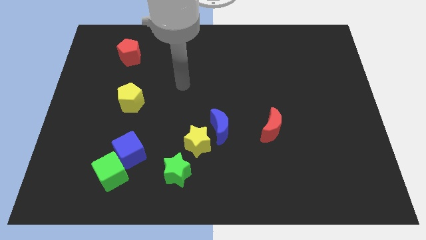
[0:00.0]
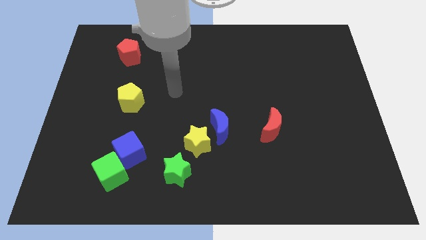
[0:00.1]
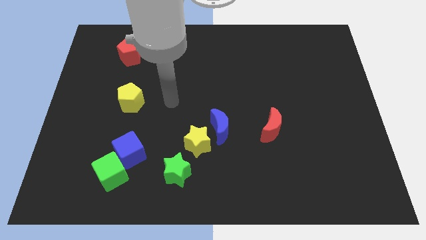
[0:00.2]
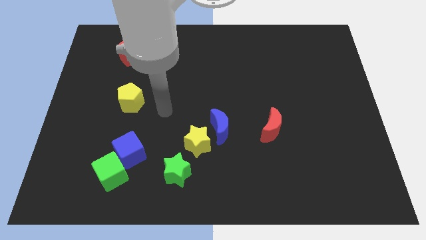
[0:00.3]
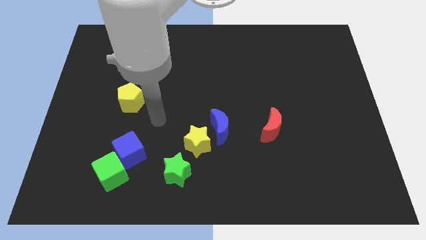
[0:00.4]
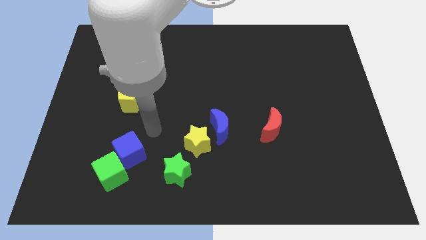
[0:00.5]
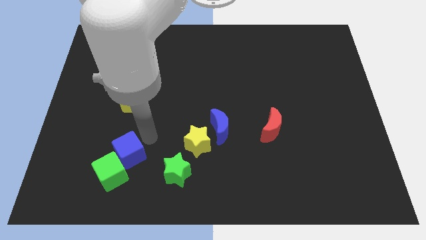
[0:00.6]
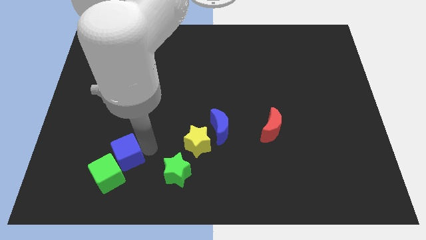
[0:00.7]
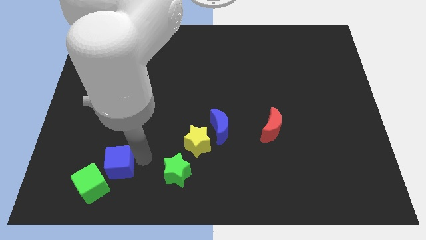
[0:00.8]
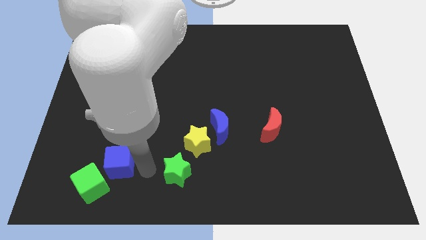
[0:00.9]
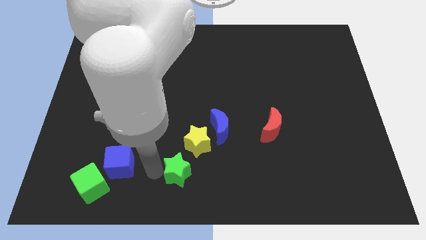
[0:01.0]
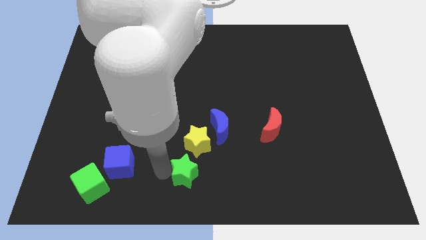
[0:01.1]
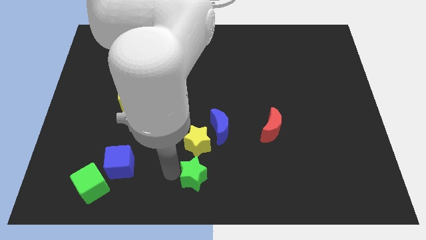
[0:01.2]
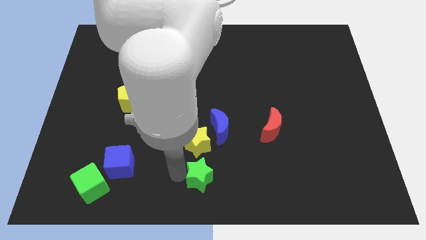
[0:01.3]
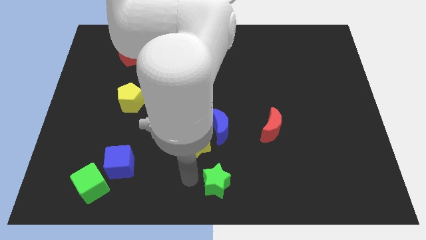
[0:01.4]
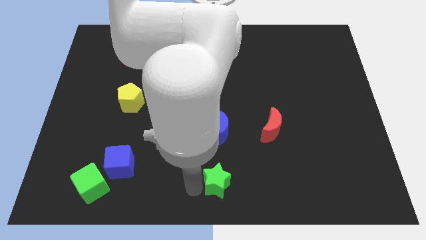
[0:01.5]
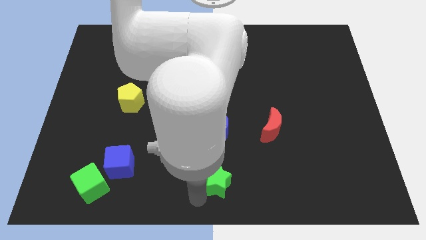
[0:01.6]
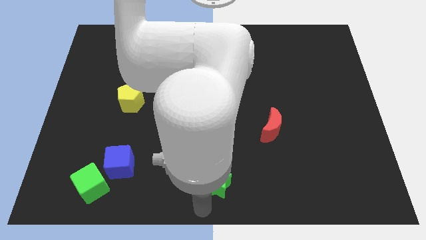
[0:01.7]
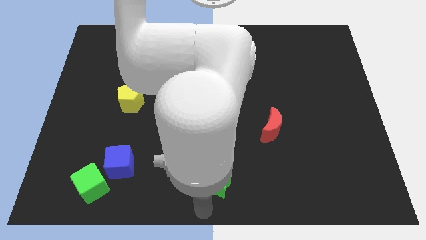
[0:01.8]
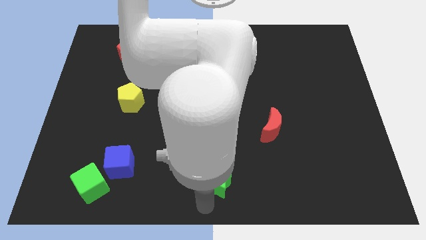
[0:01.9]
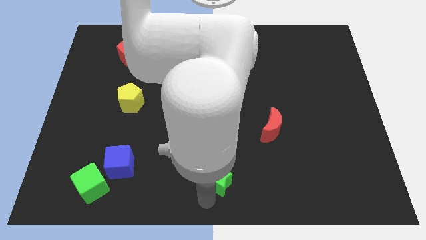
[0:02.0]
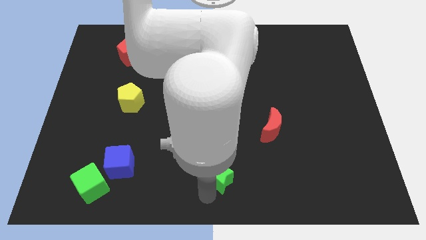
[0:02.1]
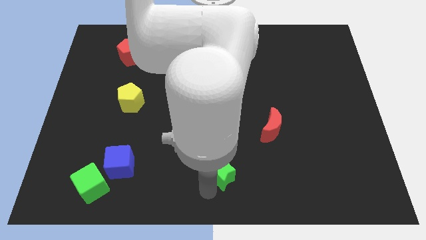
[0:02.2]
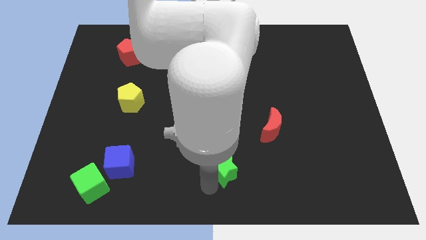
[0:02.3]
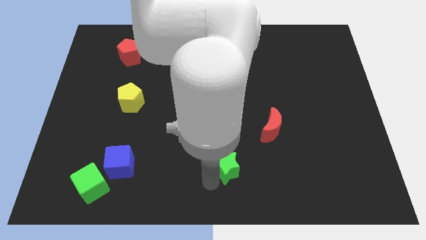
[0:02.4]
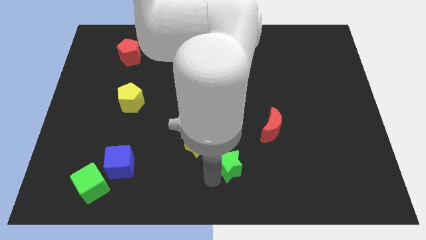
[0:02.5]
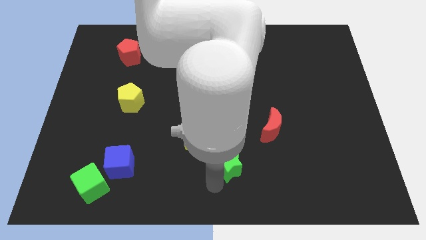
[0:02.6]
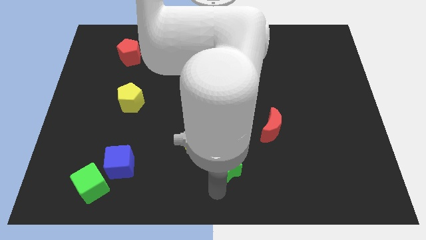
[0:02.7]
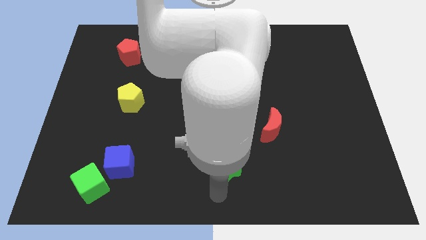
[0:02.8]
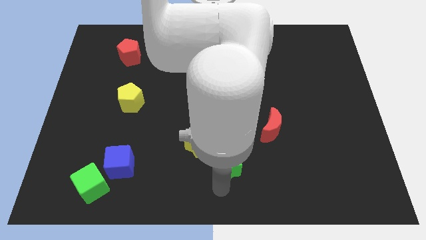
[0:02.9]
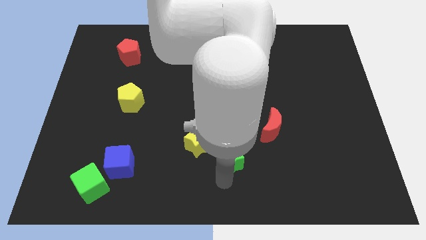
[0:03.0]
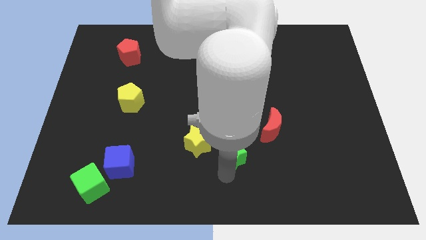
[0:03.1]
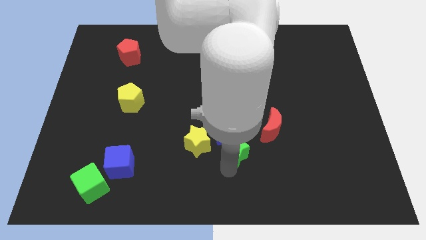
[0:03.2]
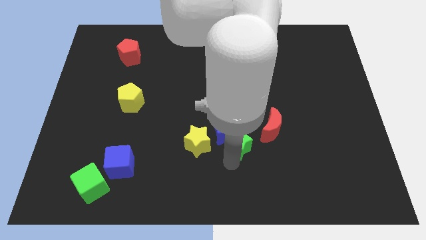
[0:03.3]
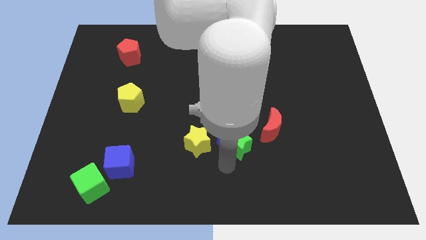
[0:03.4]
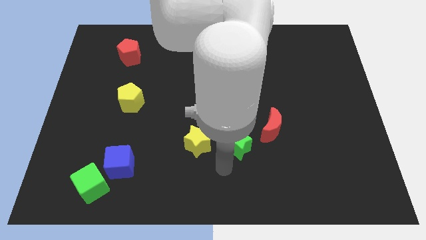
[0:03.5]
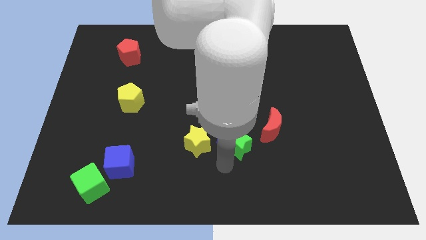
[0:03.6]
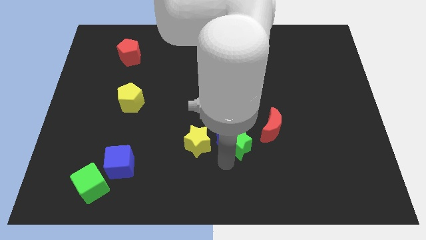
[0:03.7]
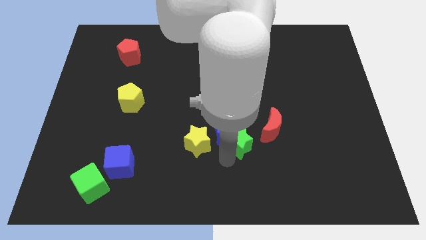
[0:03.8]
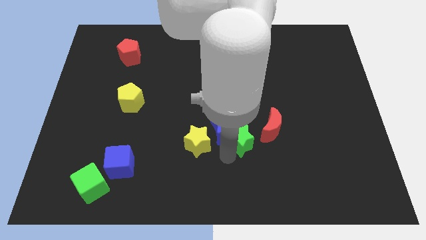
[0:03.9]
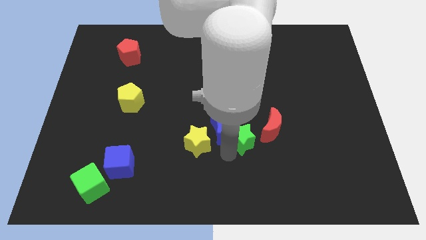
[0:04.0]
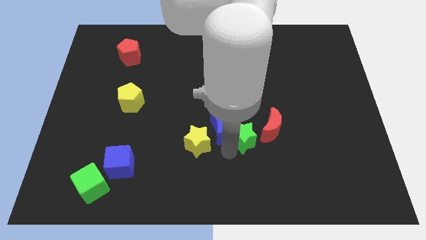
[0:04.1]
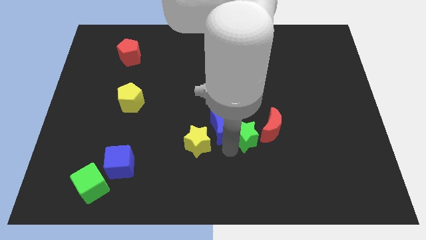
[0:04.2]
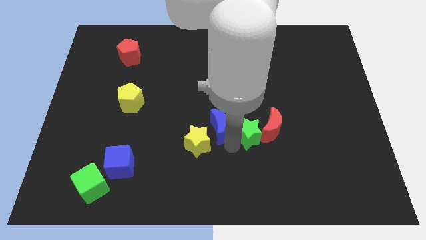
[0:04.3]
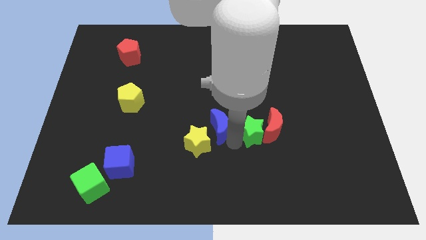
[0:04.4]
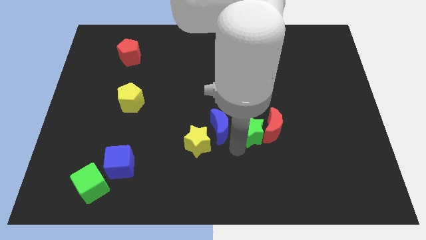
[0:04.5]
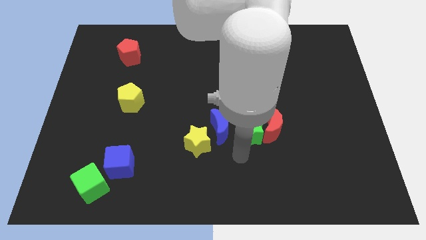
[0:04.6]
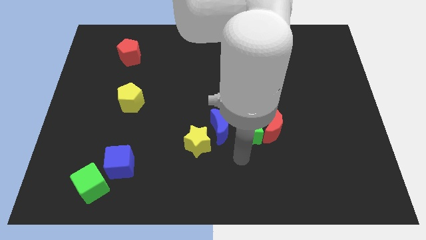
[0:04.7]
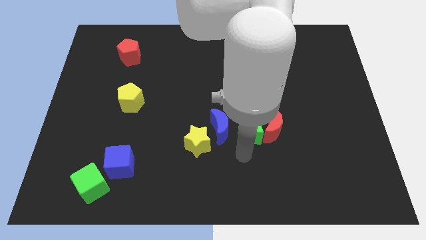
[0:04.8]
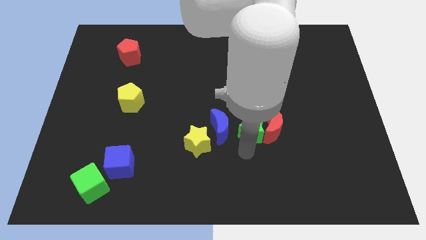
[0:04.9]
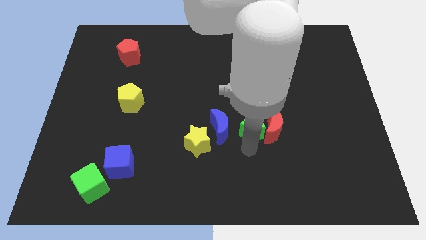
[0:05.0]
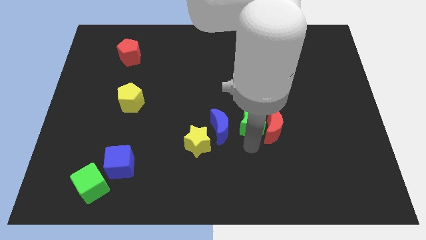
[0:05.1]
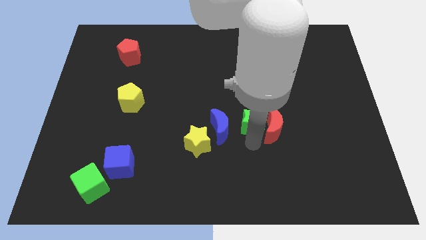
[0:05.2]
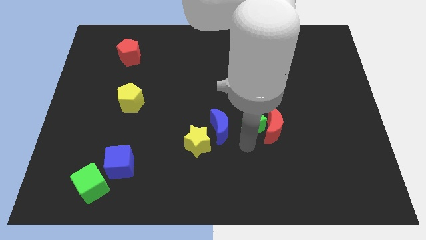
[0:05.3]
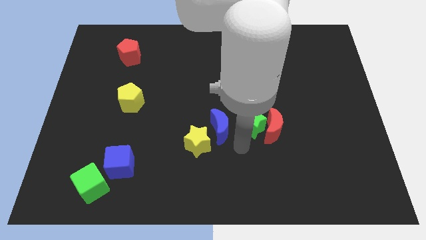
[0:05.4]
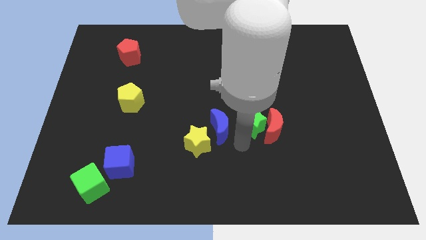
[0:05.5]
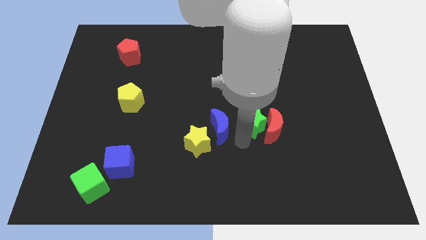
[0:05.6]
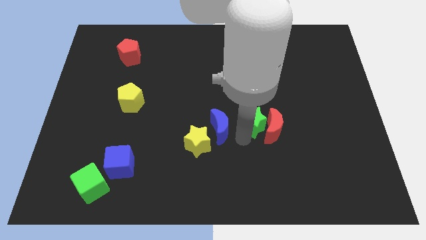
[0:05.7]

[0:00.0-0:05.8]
move the green star up and then right

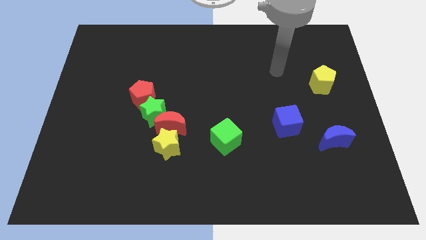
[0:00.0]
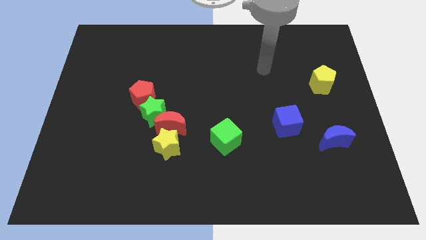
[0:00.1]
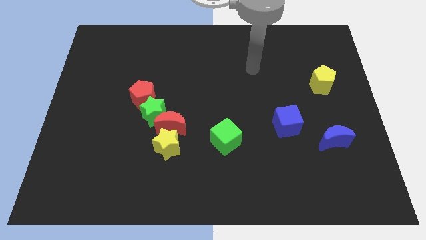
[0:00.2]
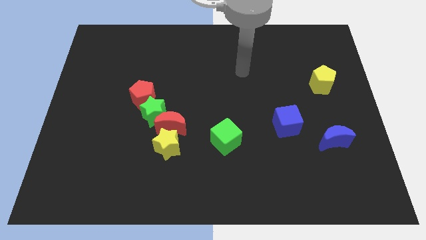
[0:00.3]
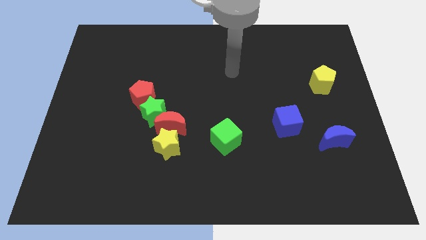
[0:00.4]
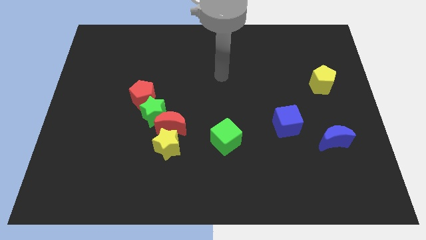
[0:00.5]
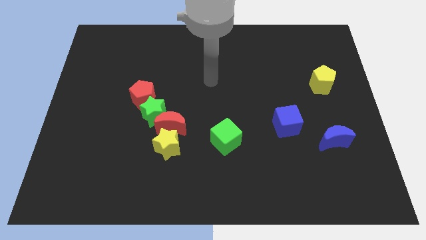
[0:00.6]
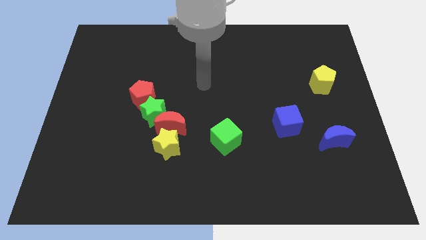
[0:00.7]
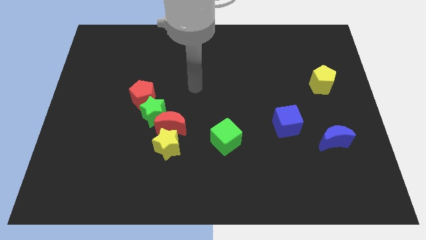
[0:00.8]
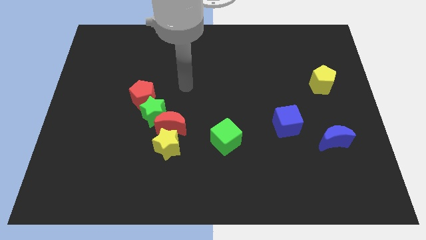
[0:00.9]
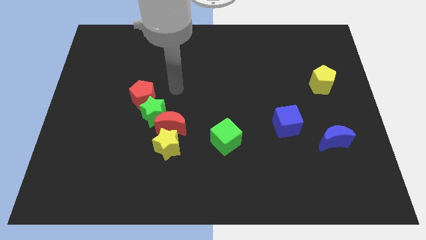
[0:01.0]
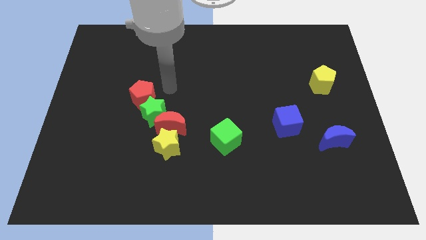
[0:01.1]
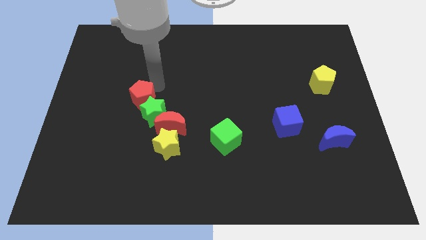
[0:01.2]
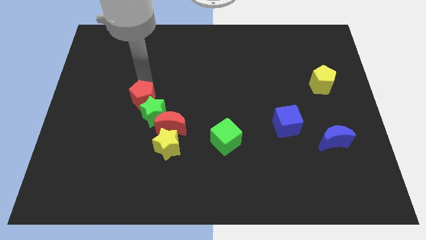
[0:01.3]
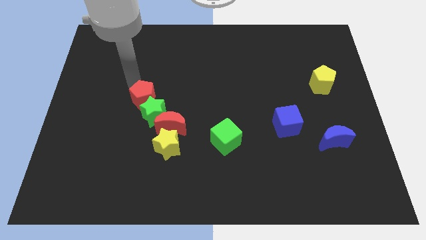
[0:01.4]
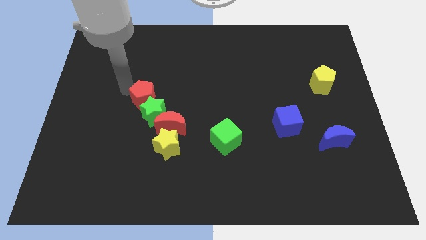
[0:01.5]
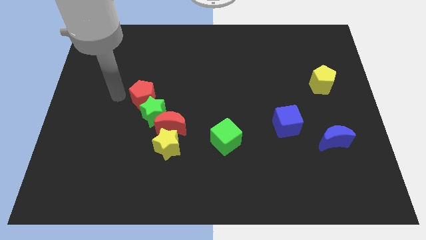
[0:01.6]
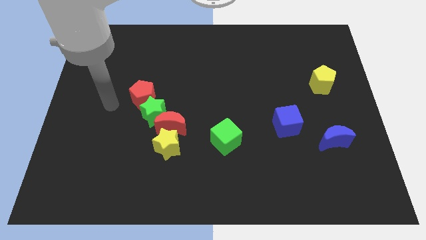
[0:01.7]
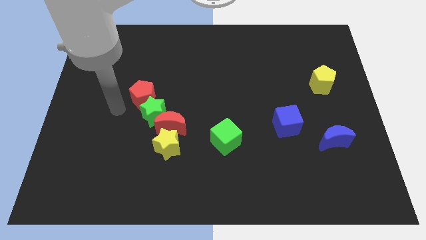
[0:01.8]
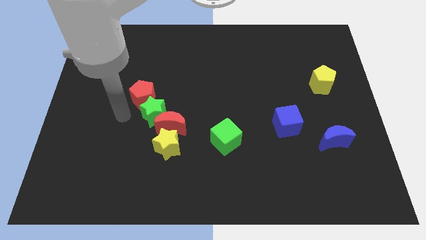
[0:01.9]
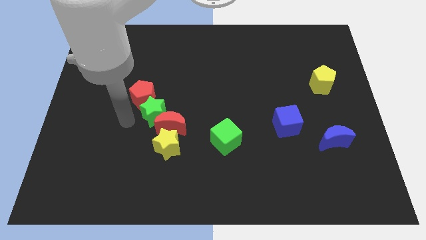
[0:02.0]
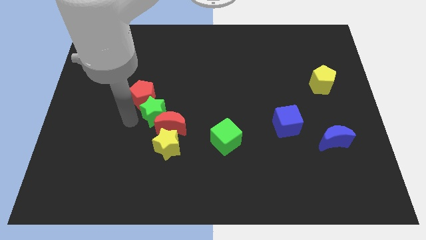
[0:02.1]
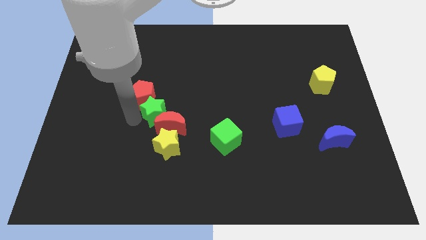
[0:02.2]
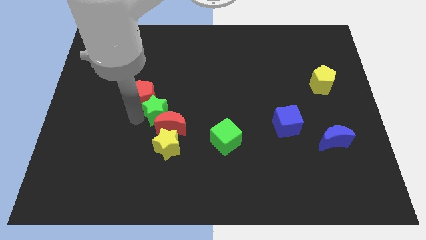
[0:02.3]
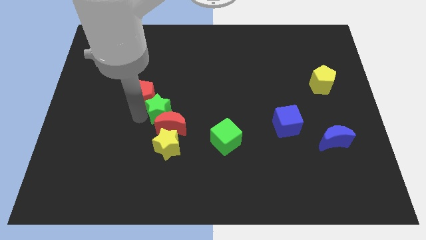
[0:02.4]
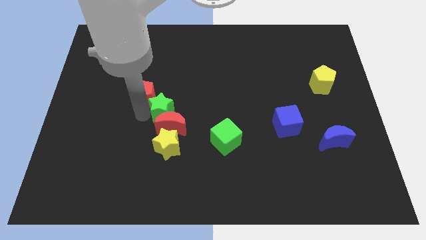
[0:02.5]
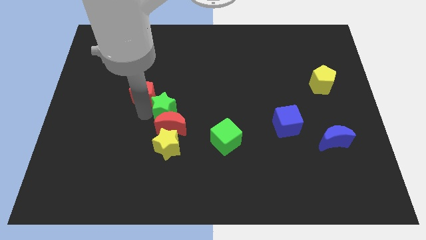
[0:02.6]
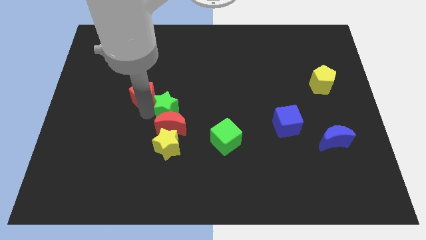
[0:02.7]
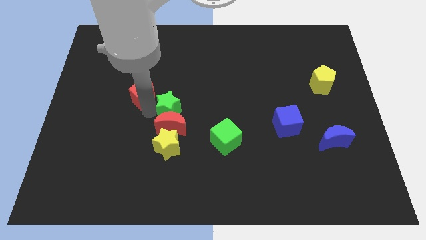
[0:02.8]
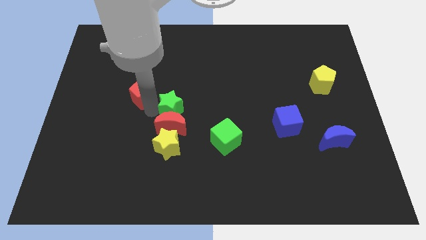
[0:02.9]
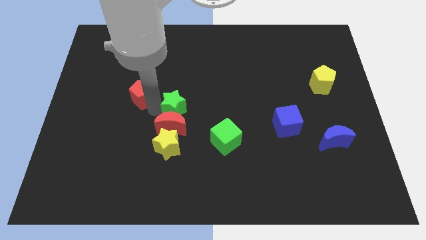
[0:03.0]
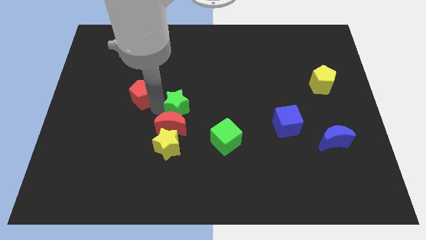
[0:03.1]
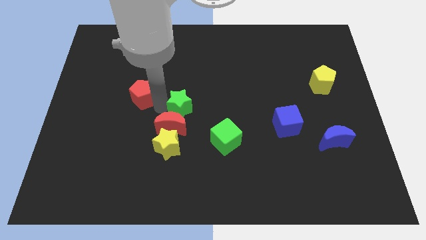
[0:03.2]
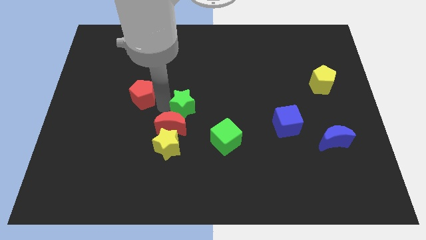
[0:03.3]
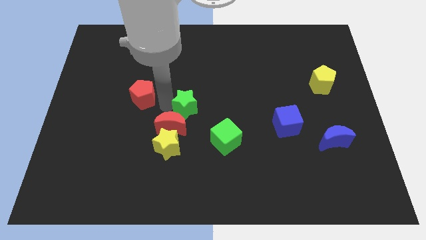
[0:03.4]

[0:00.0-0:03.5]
slightly move the green star to the right
